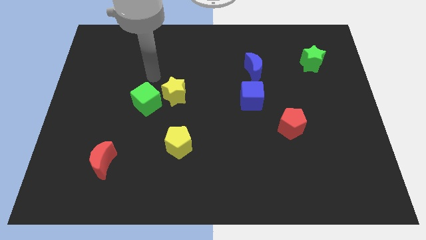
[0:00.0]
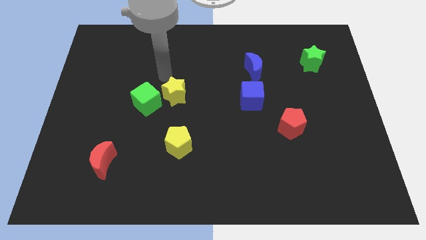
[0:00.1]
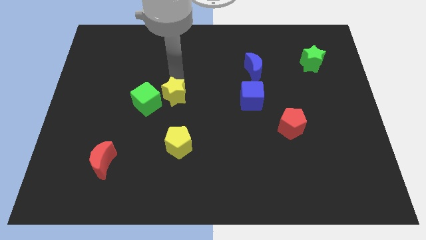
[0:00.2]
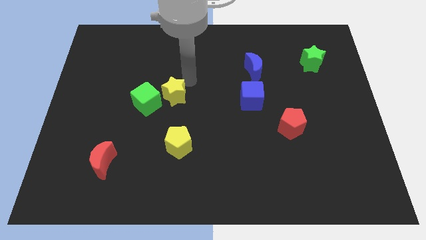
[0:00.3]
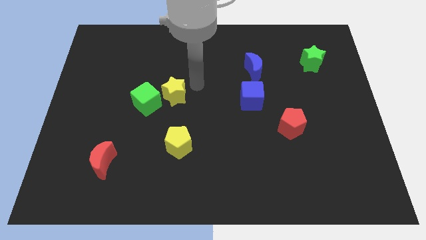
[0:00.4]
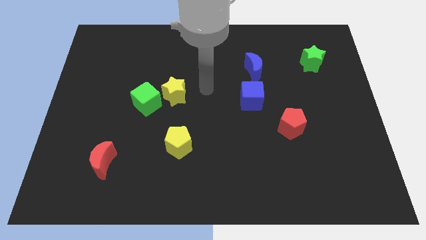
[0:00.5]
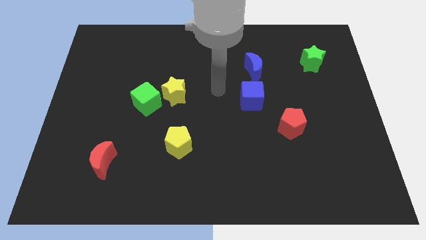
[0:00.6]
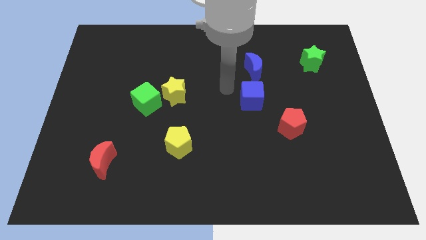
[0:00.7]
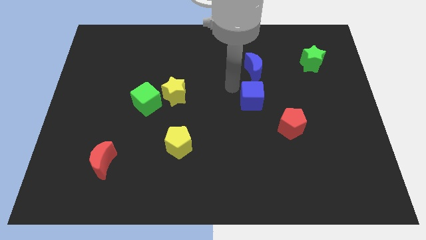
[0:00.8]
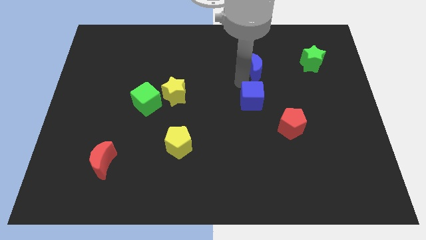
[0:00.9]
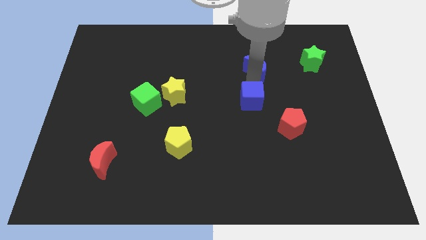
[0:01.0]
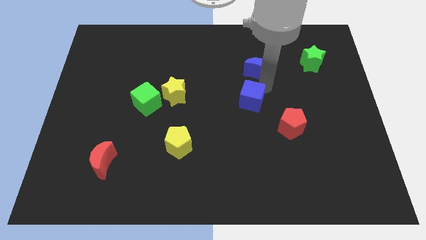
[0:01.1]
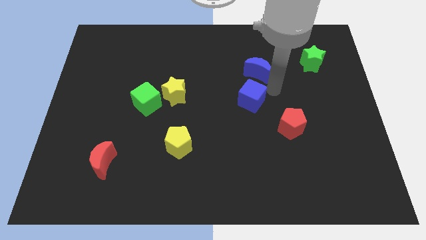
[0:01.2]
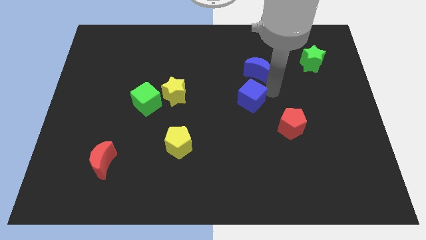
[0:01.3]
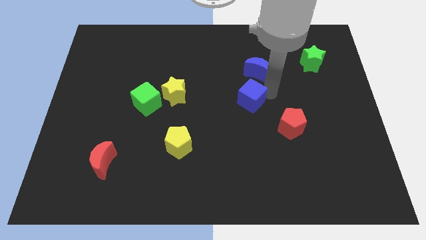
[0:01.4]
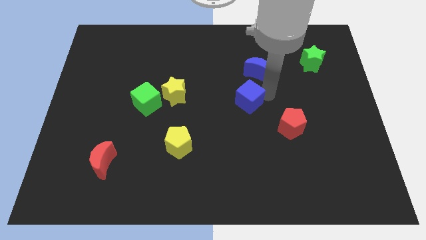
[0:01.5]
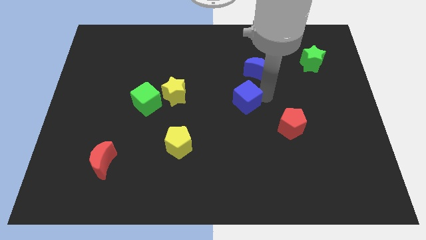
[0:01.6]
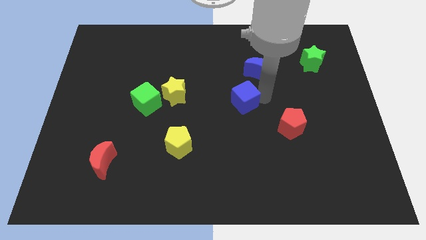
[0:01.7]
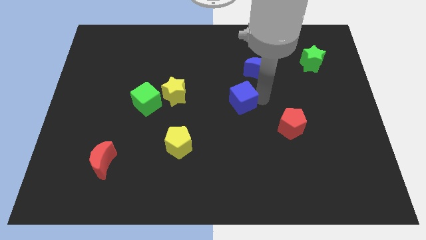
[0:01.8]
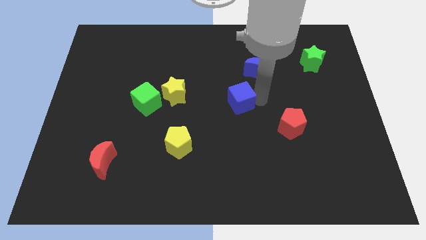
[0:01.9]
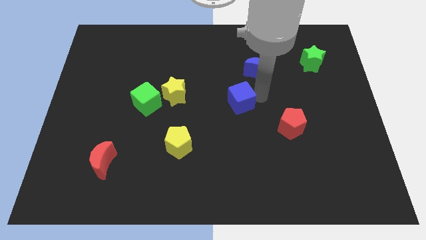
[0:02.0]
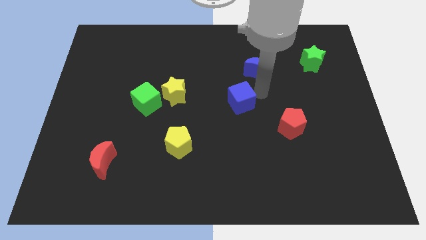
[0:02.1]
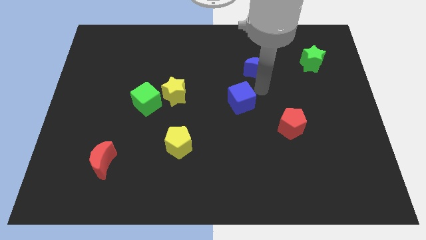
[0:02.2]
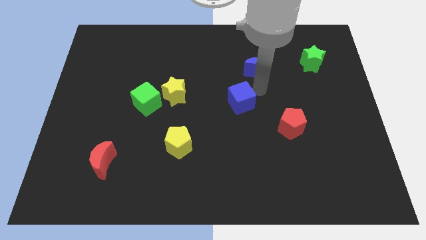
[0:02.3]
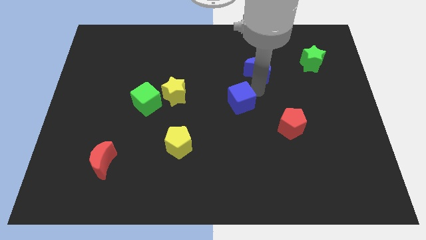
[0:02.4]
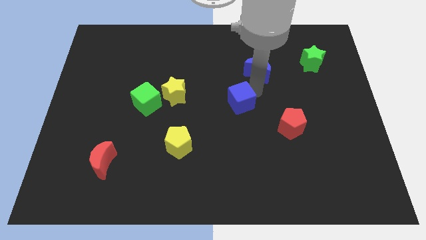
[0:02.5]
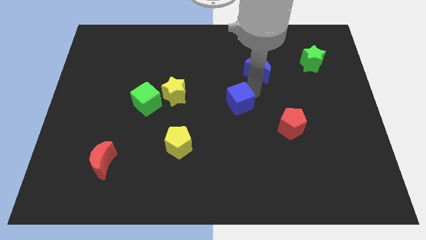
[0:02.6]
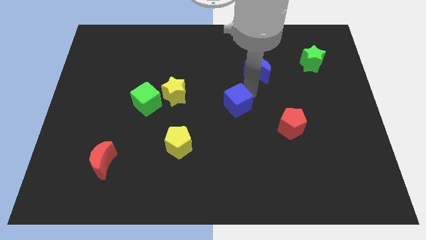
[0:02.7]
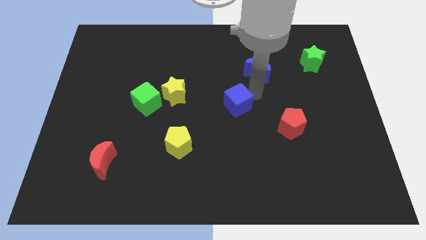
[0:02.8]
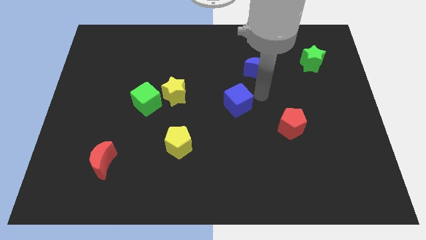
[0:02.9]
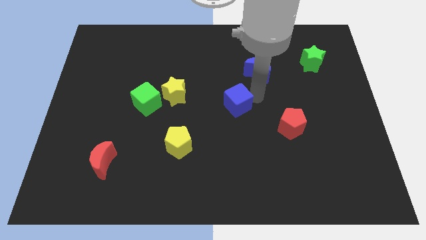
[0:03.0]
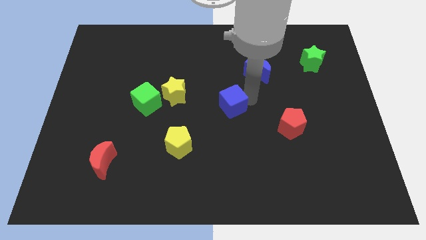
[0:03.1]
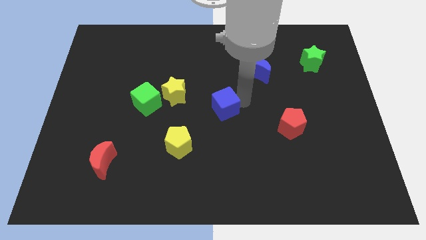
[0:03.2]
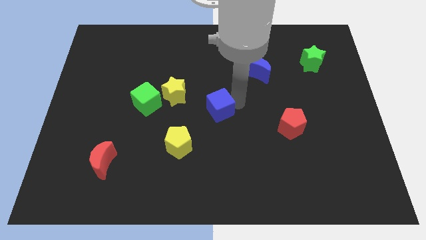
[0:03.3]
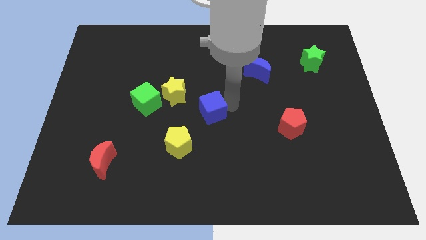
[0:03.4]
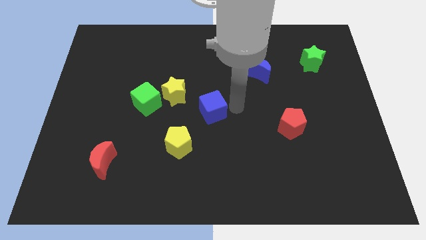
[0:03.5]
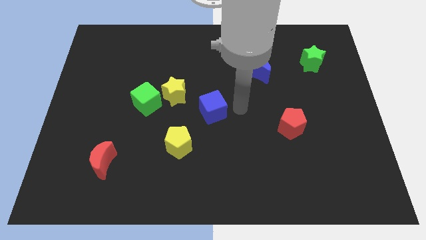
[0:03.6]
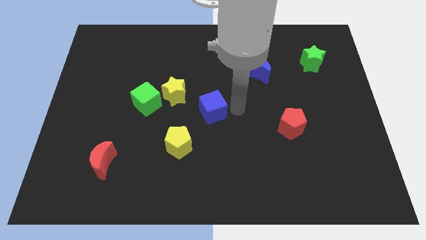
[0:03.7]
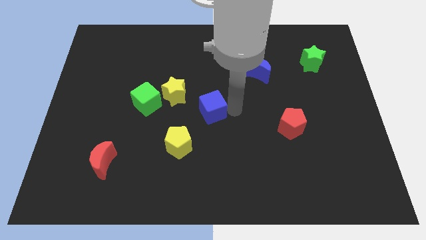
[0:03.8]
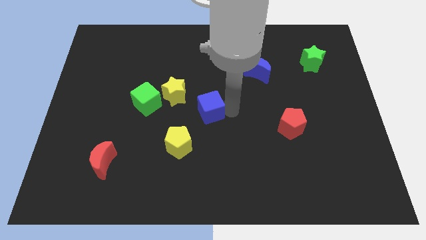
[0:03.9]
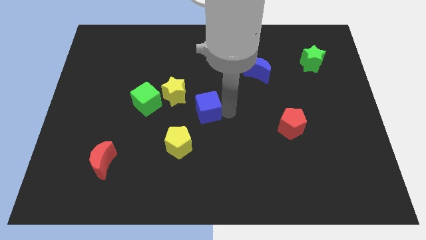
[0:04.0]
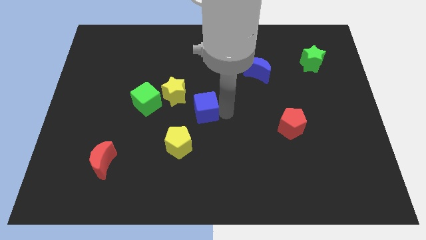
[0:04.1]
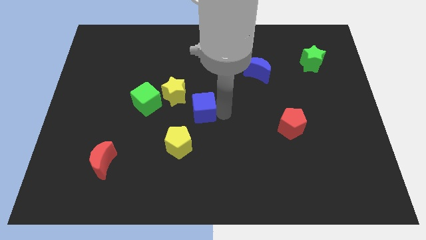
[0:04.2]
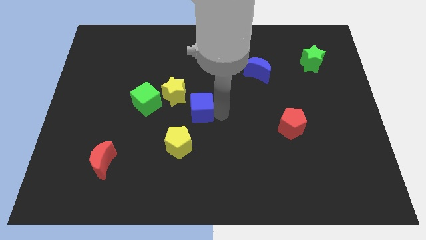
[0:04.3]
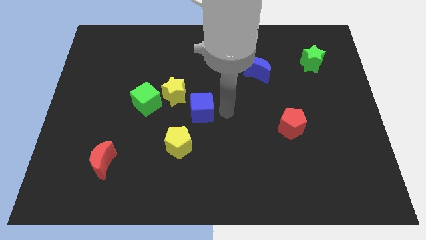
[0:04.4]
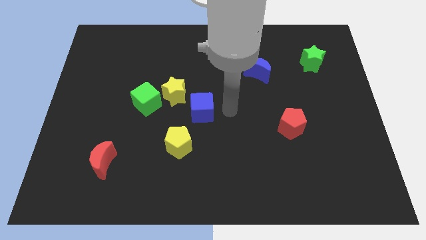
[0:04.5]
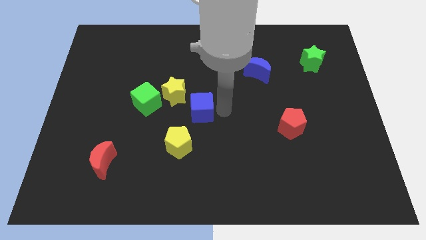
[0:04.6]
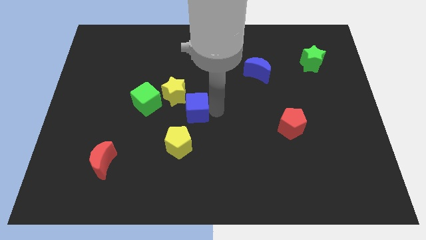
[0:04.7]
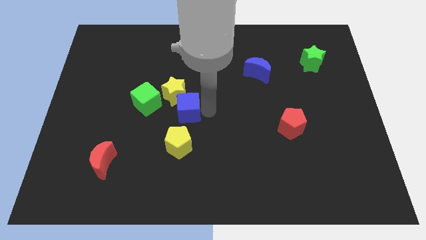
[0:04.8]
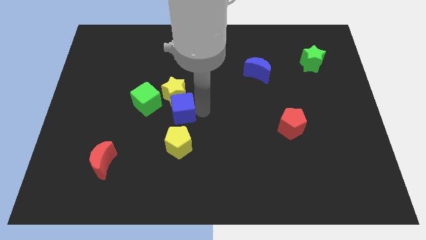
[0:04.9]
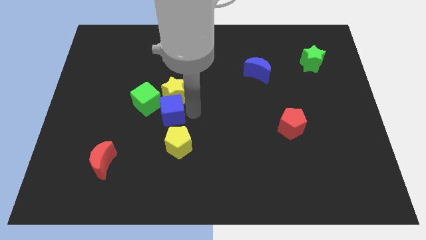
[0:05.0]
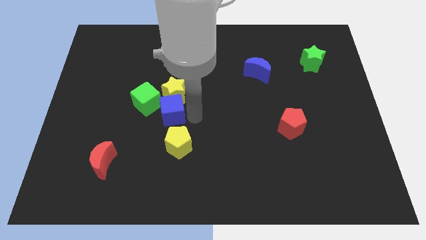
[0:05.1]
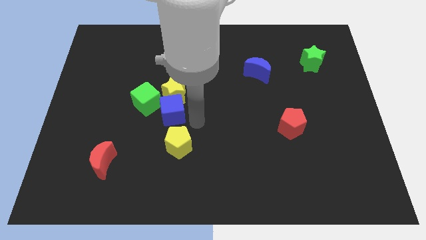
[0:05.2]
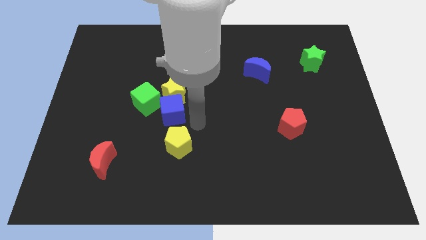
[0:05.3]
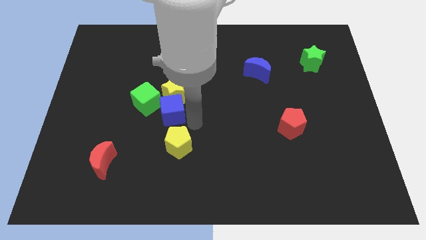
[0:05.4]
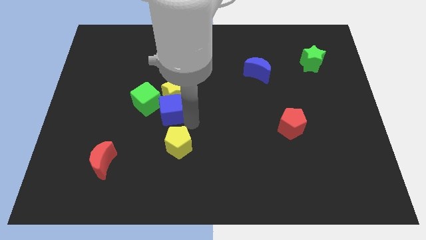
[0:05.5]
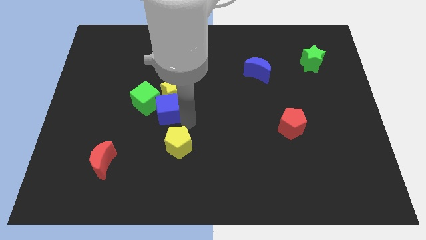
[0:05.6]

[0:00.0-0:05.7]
put the blue cube towards the green cube

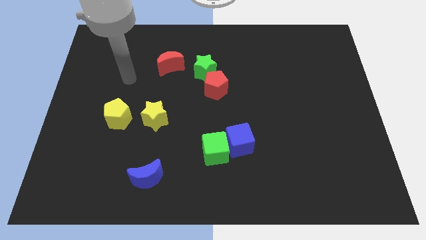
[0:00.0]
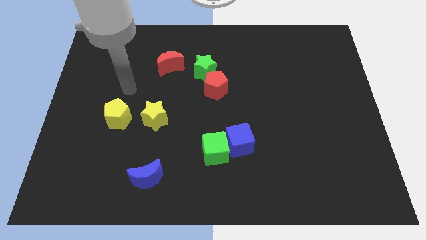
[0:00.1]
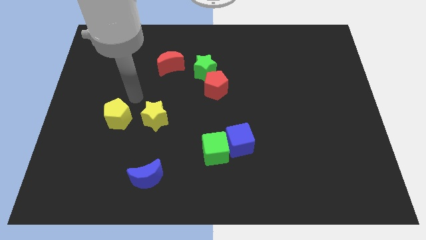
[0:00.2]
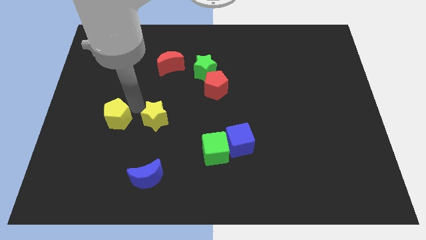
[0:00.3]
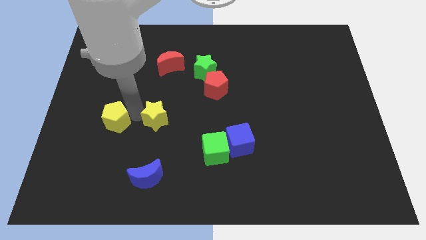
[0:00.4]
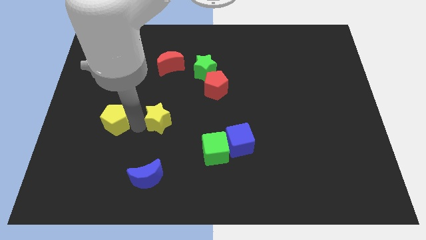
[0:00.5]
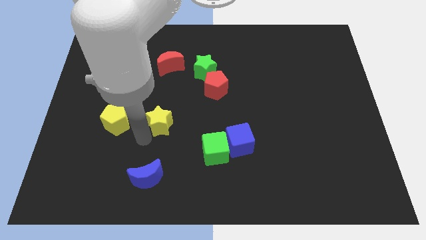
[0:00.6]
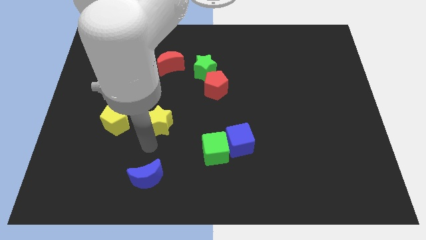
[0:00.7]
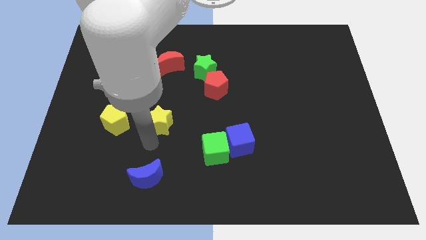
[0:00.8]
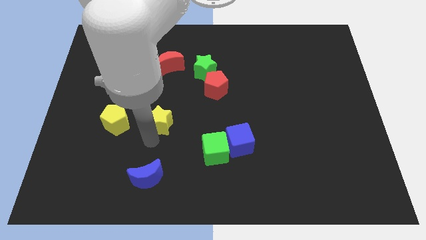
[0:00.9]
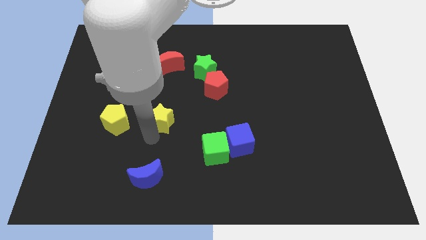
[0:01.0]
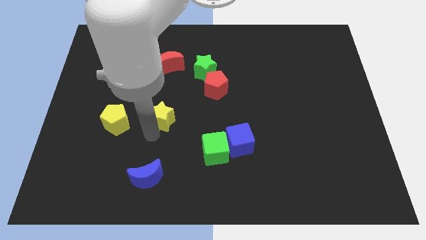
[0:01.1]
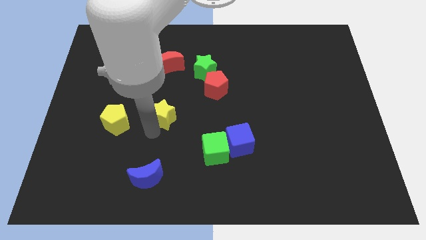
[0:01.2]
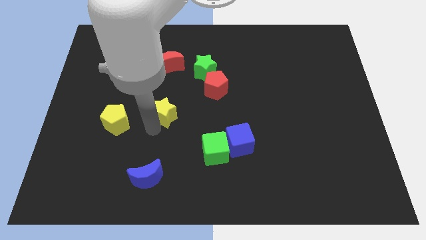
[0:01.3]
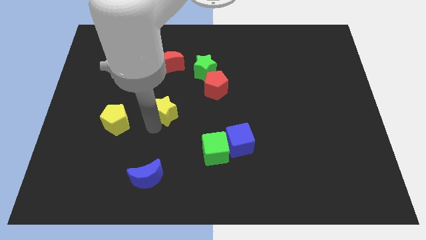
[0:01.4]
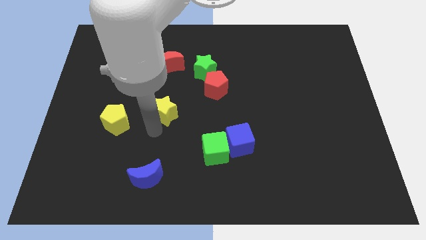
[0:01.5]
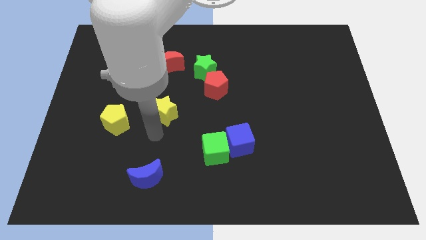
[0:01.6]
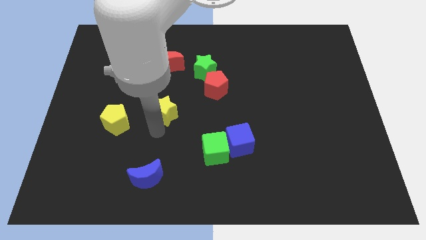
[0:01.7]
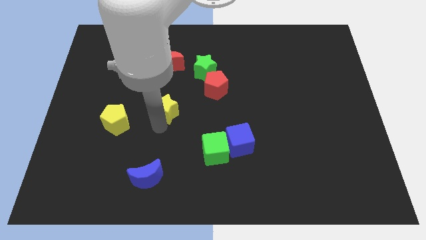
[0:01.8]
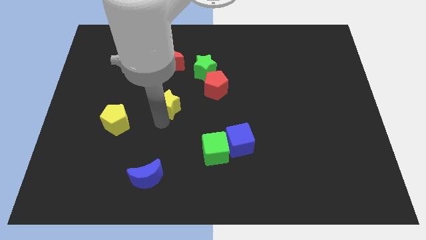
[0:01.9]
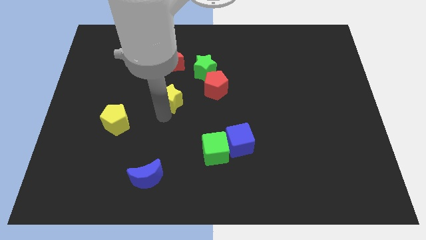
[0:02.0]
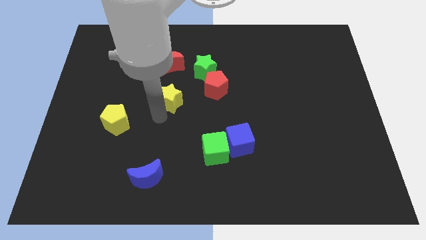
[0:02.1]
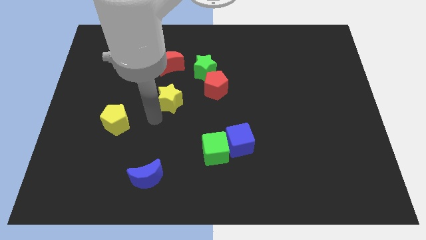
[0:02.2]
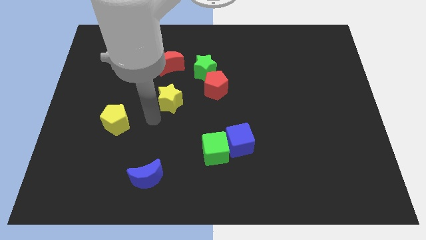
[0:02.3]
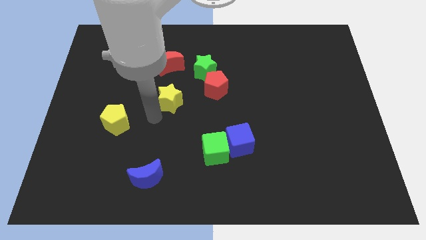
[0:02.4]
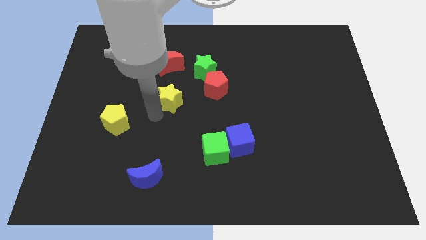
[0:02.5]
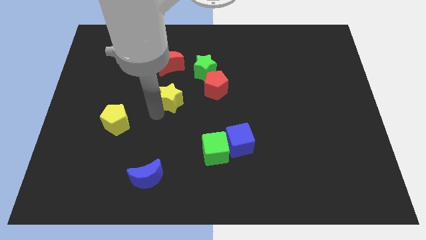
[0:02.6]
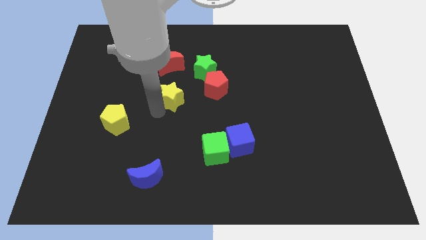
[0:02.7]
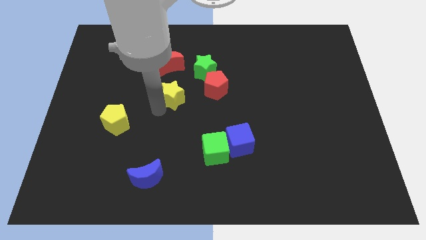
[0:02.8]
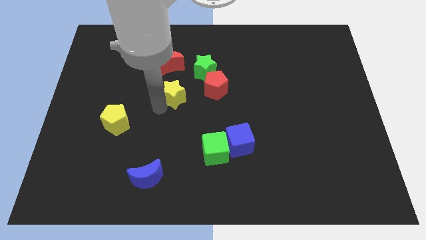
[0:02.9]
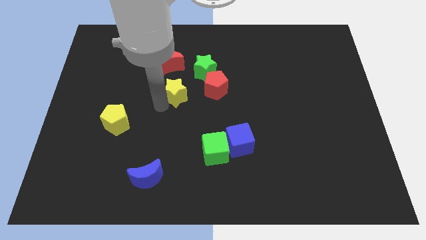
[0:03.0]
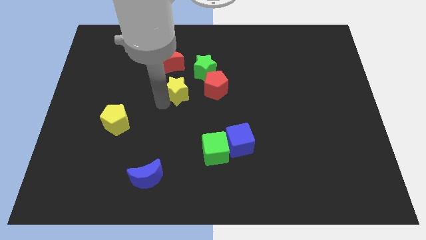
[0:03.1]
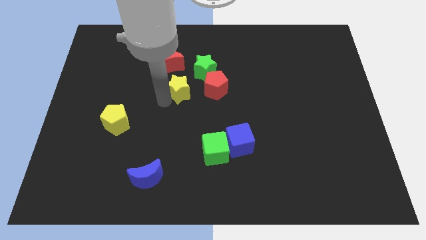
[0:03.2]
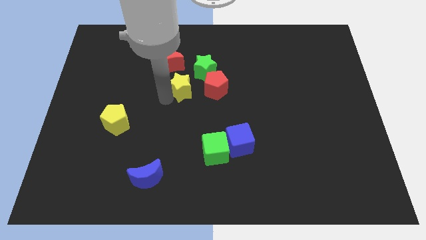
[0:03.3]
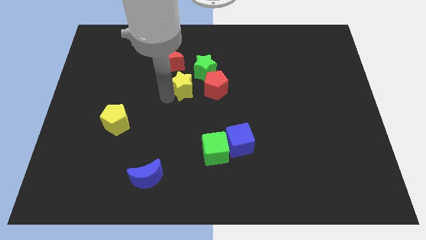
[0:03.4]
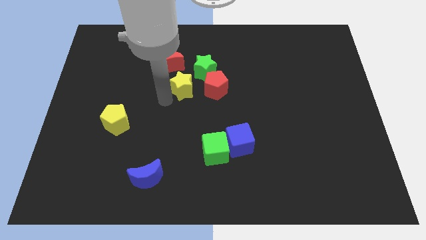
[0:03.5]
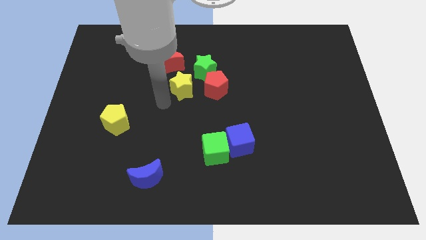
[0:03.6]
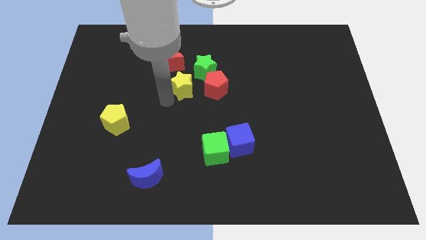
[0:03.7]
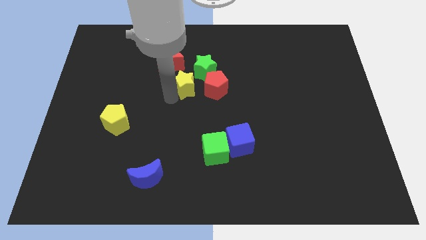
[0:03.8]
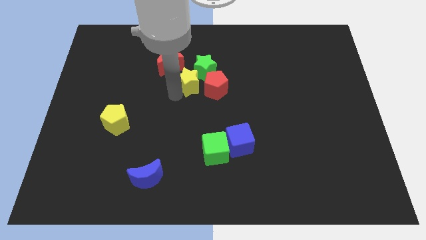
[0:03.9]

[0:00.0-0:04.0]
push the yellow star towards the green star
